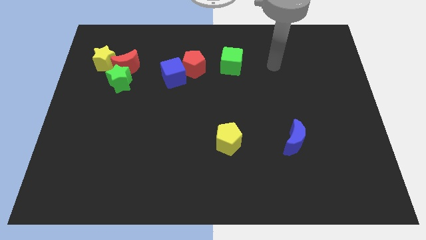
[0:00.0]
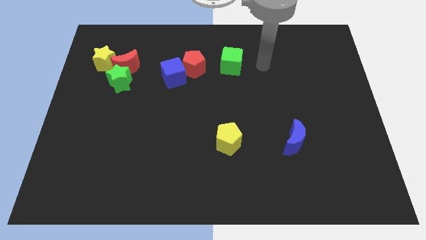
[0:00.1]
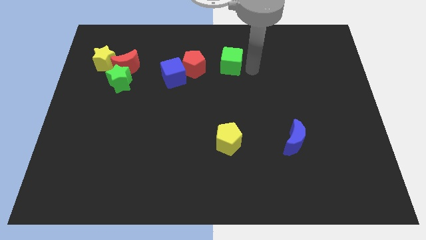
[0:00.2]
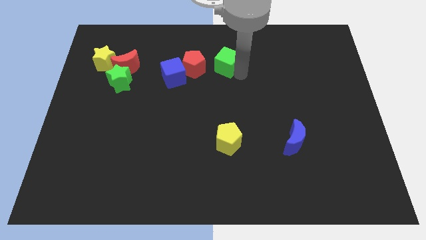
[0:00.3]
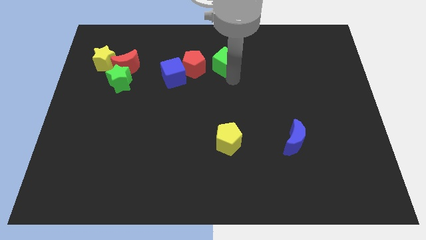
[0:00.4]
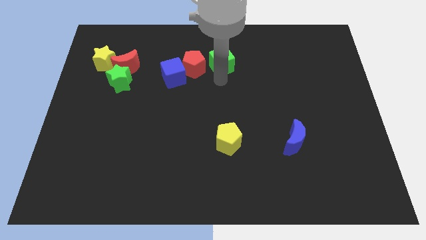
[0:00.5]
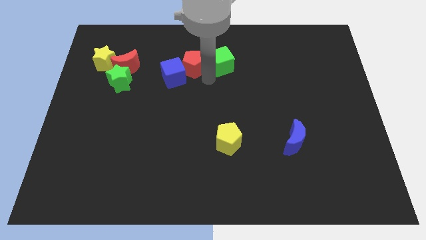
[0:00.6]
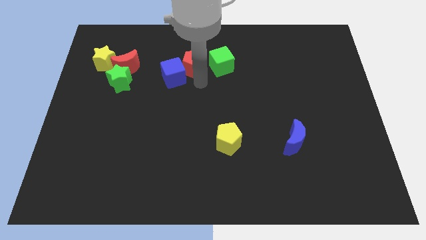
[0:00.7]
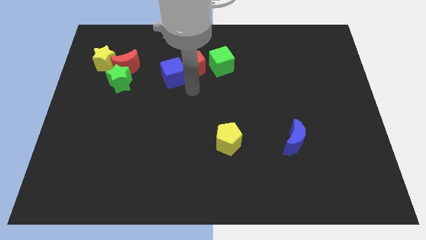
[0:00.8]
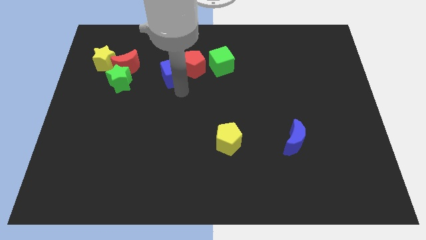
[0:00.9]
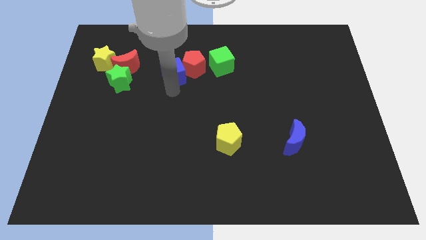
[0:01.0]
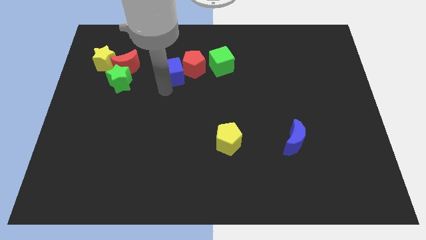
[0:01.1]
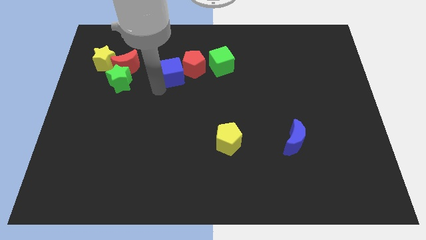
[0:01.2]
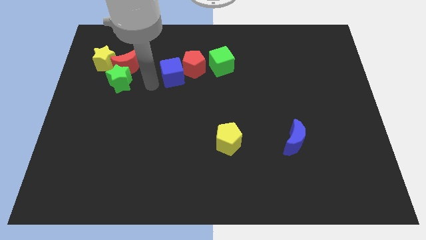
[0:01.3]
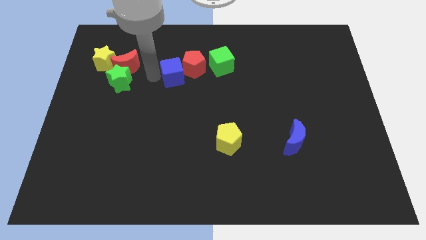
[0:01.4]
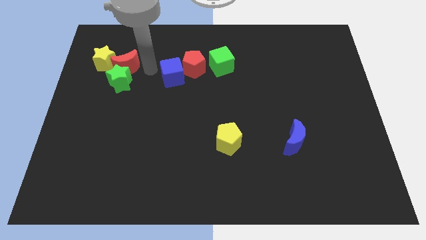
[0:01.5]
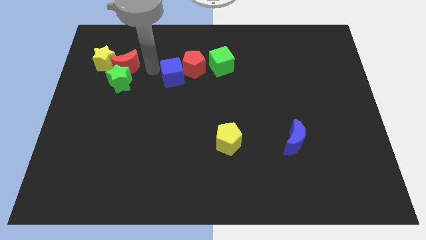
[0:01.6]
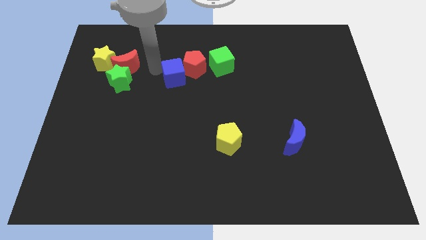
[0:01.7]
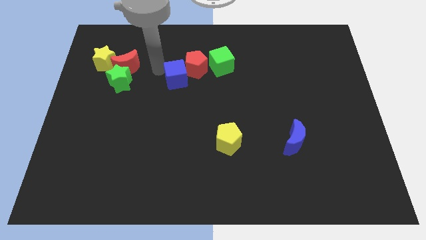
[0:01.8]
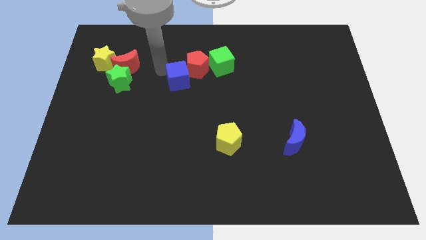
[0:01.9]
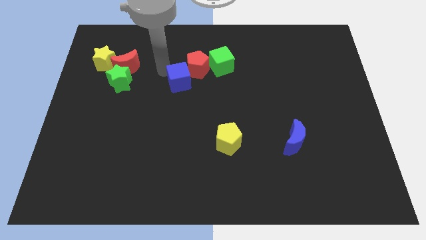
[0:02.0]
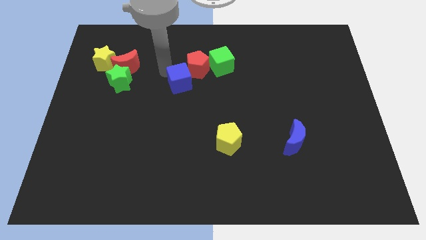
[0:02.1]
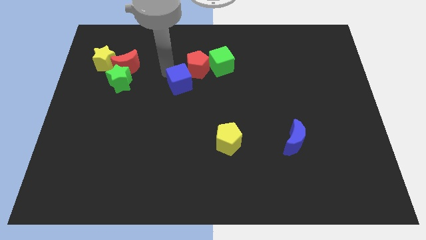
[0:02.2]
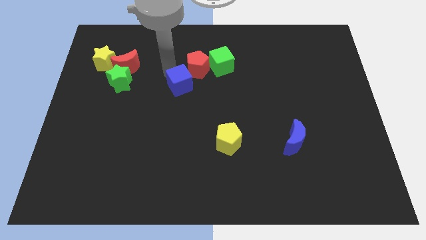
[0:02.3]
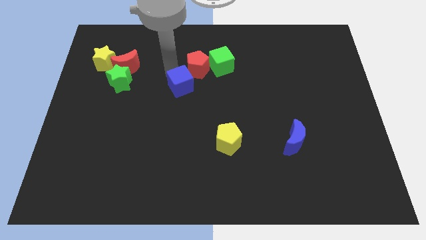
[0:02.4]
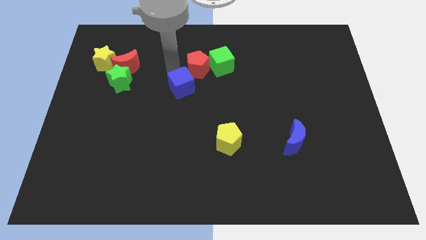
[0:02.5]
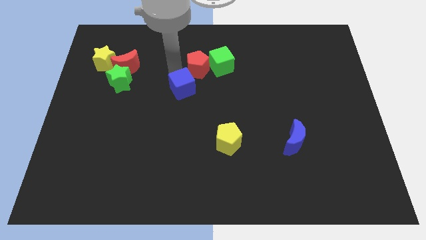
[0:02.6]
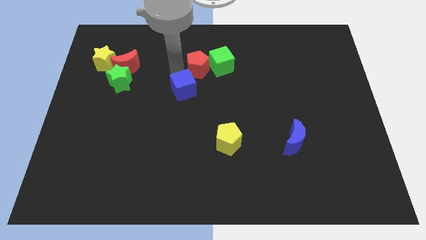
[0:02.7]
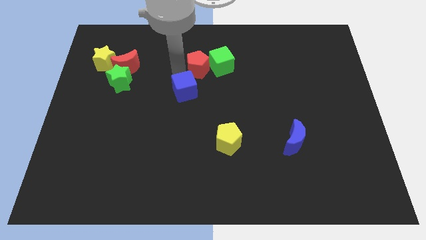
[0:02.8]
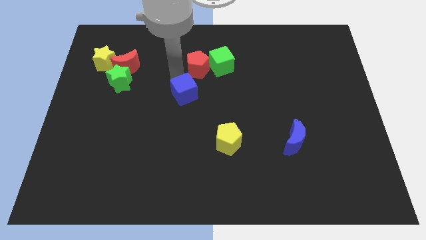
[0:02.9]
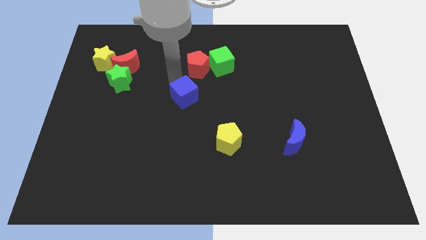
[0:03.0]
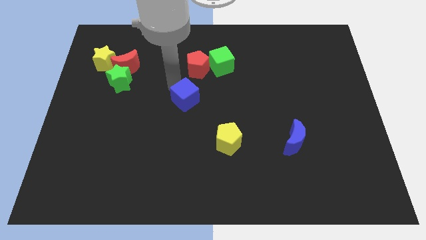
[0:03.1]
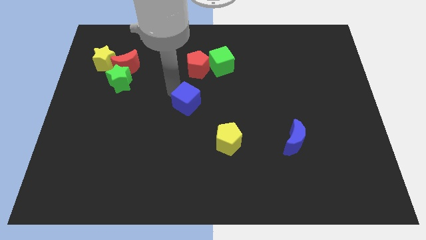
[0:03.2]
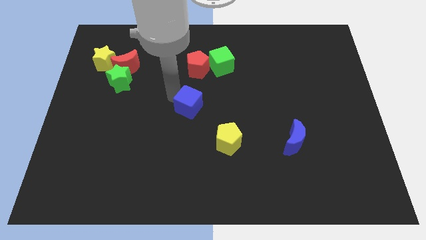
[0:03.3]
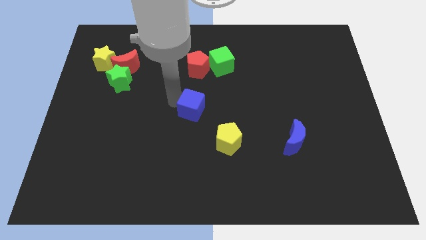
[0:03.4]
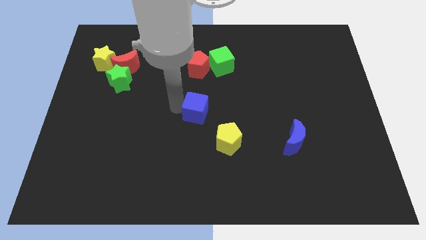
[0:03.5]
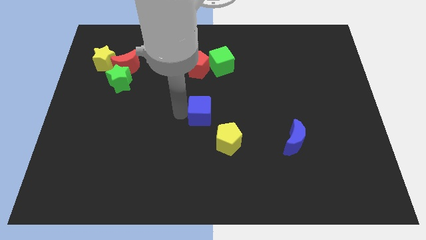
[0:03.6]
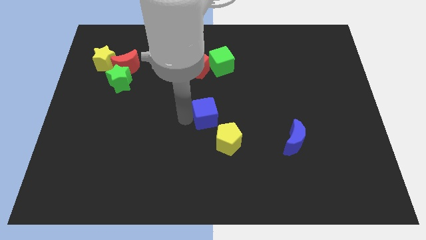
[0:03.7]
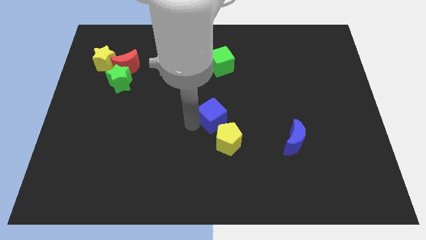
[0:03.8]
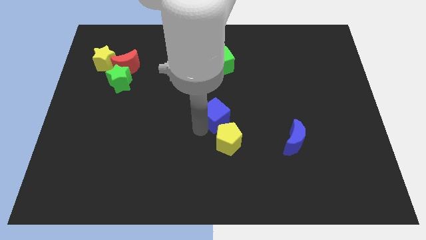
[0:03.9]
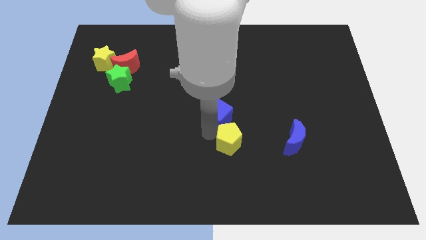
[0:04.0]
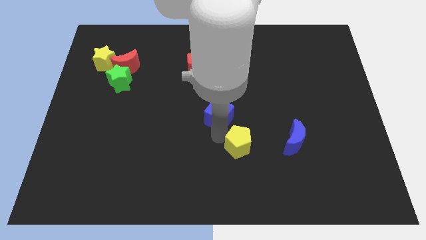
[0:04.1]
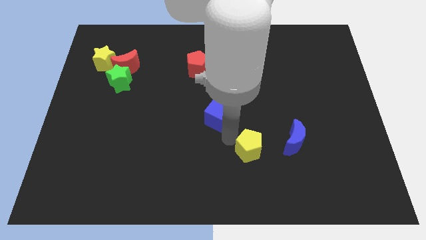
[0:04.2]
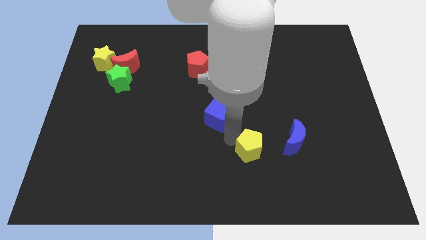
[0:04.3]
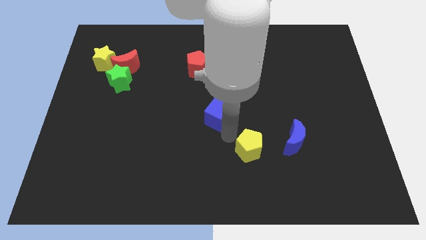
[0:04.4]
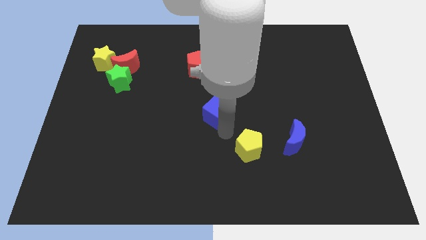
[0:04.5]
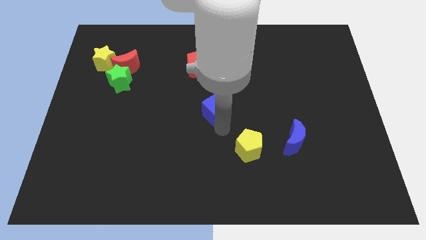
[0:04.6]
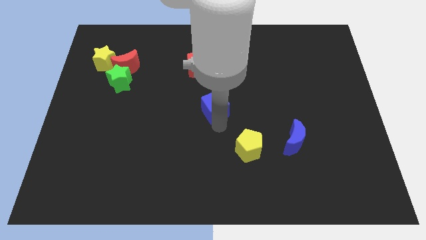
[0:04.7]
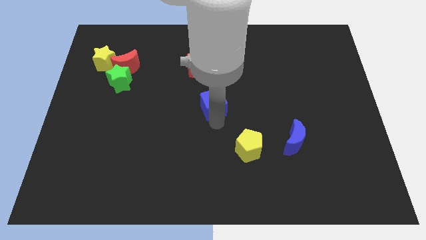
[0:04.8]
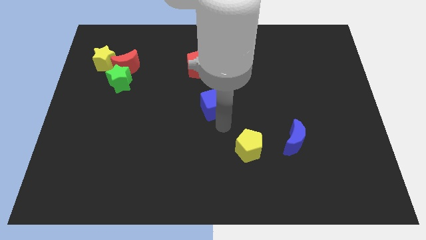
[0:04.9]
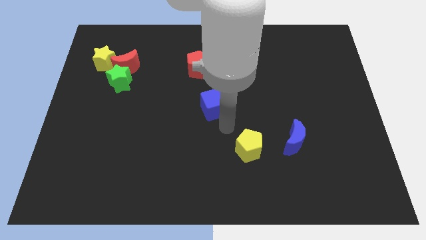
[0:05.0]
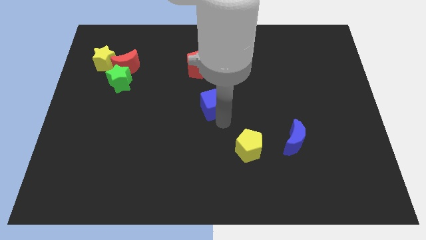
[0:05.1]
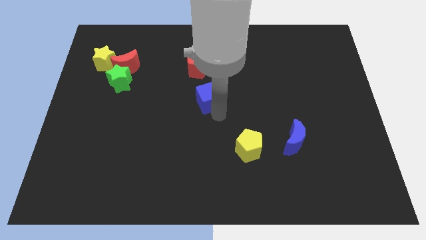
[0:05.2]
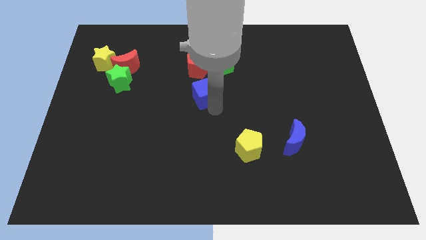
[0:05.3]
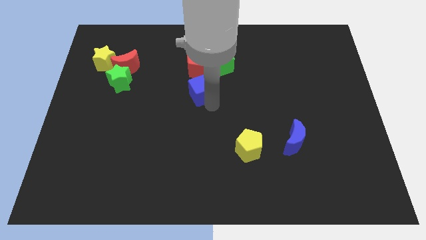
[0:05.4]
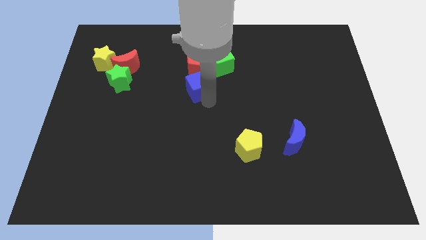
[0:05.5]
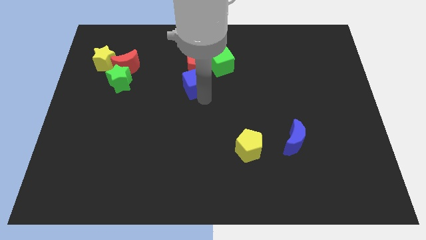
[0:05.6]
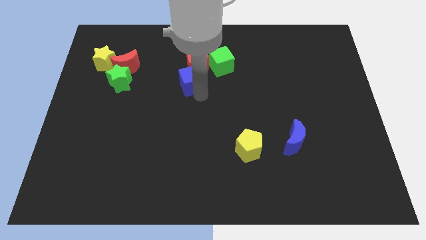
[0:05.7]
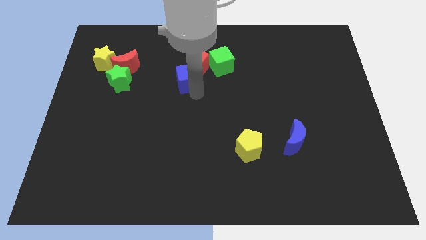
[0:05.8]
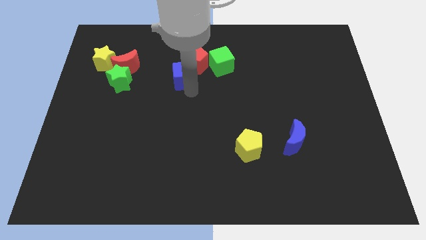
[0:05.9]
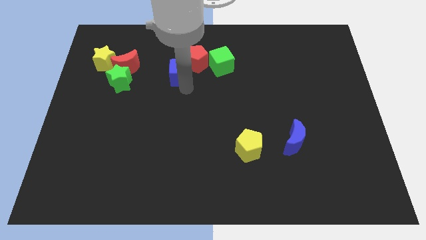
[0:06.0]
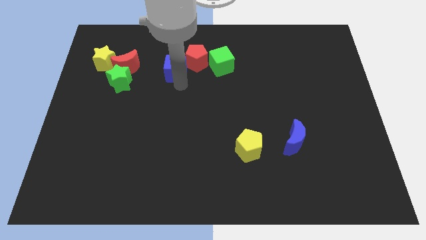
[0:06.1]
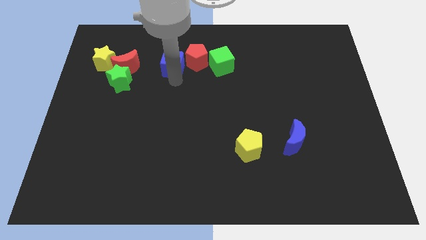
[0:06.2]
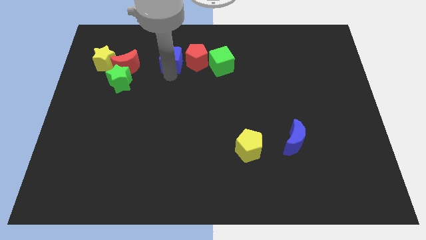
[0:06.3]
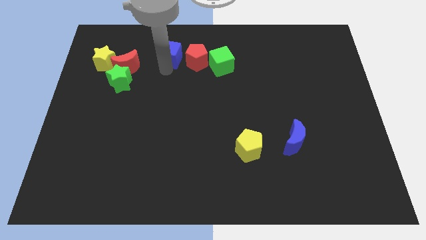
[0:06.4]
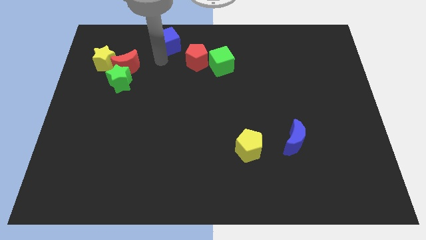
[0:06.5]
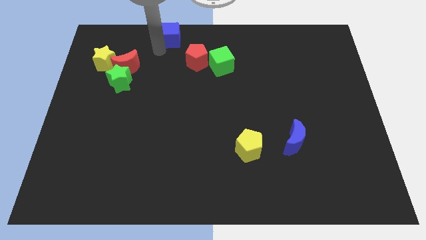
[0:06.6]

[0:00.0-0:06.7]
slide the blue cube to the top

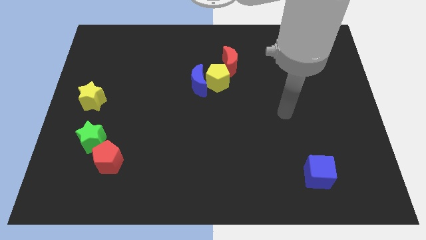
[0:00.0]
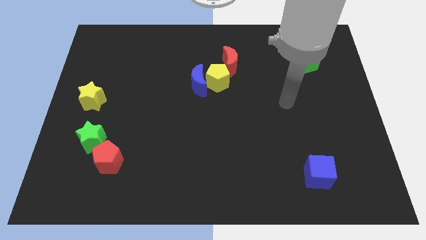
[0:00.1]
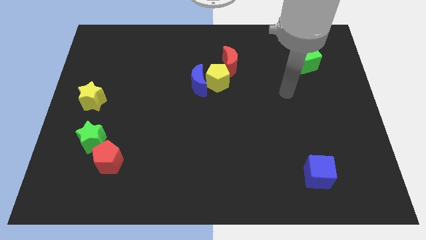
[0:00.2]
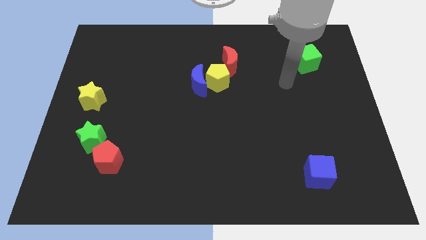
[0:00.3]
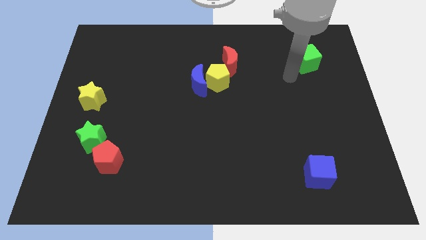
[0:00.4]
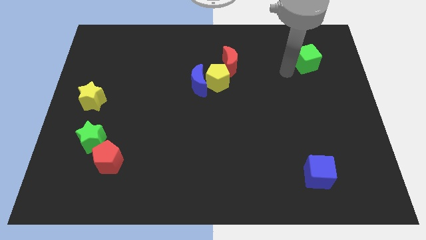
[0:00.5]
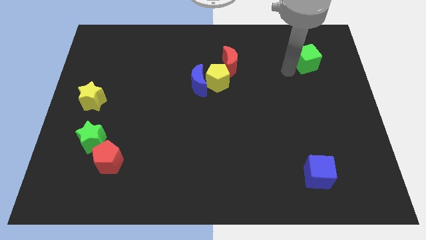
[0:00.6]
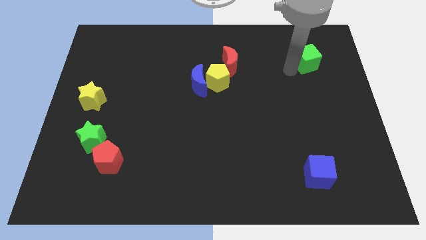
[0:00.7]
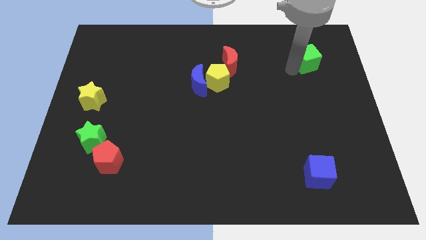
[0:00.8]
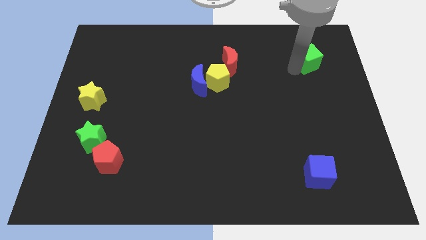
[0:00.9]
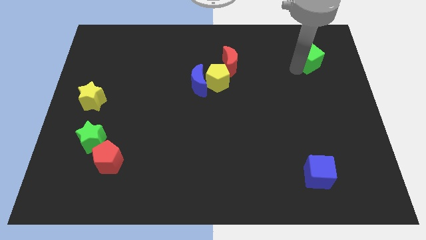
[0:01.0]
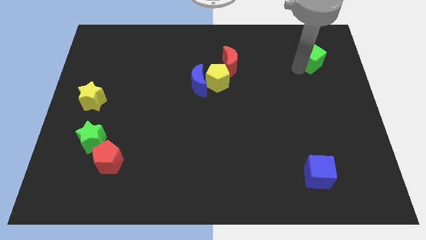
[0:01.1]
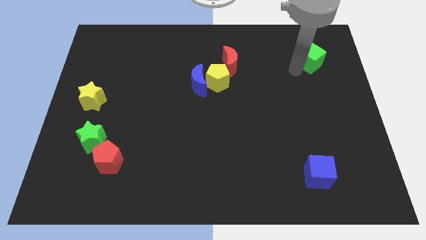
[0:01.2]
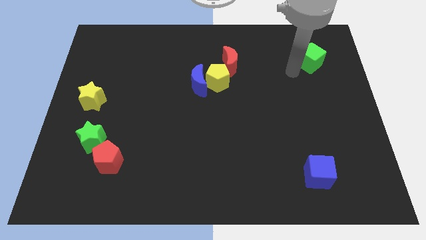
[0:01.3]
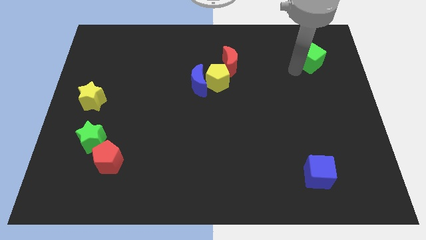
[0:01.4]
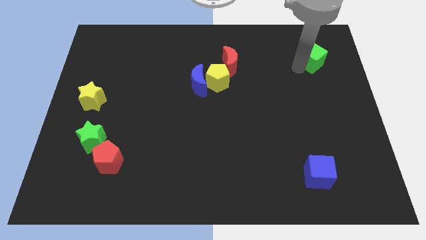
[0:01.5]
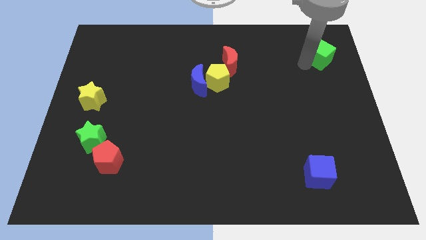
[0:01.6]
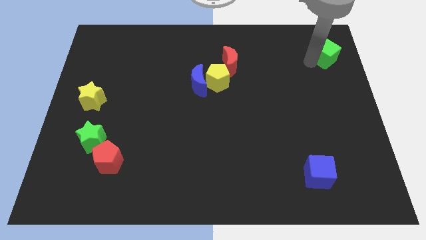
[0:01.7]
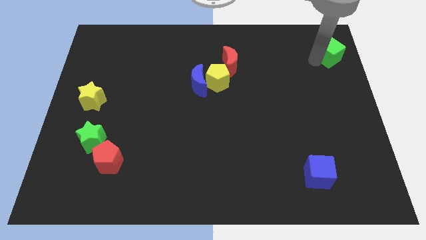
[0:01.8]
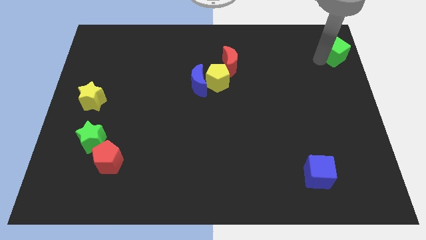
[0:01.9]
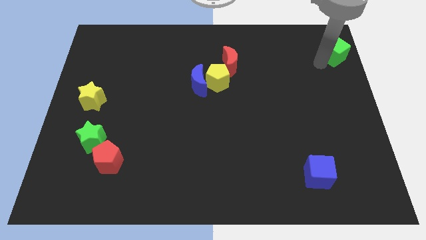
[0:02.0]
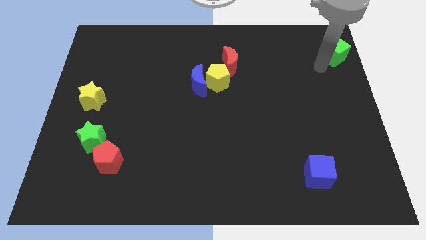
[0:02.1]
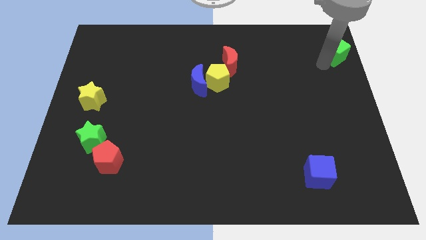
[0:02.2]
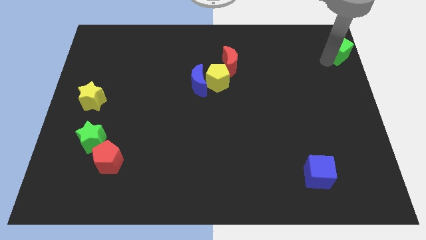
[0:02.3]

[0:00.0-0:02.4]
push the green cube to the upper right corner
